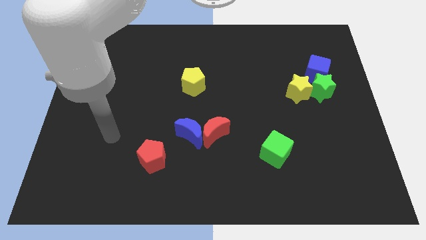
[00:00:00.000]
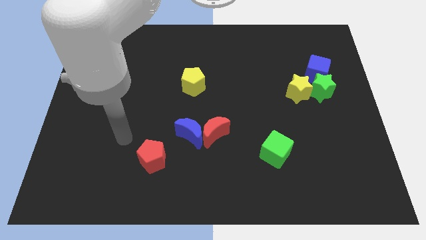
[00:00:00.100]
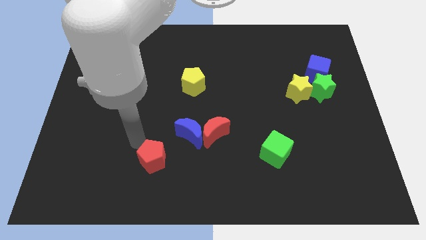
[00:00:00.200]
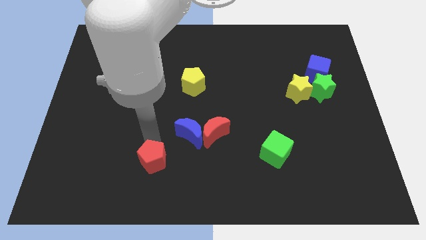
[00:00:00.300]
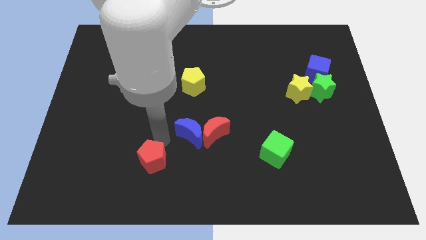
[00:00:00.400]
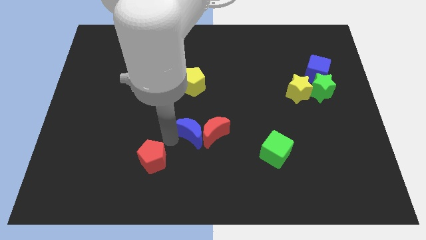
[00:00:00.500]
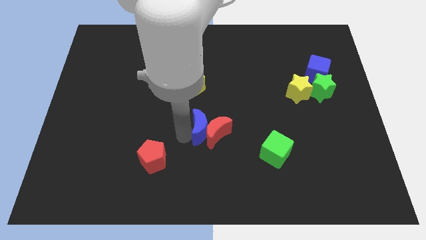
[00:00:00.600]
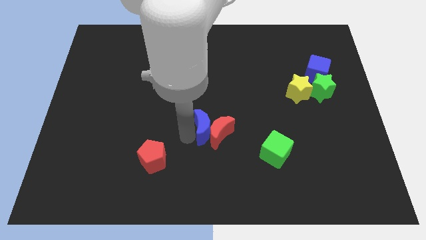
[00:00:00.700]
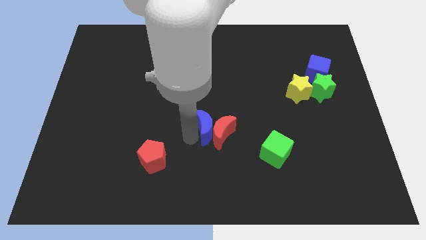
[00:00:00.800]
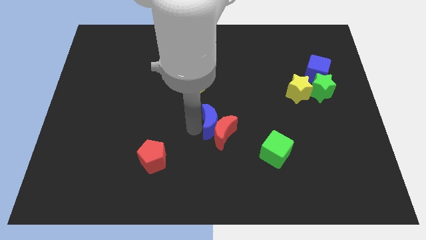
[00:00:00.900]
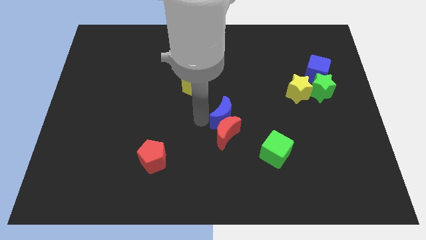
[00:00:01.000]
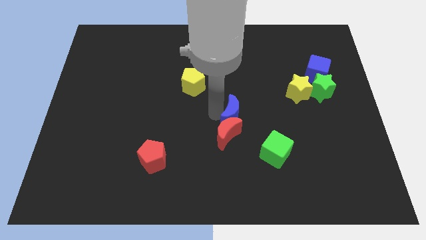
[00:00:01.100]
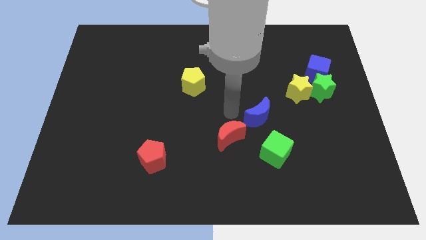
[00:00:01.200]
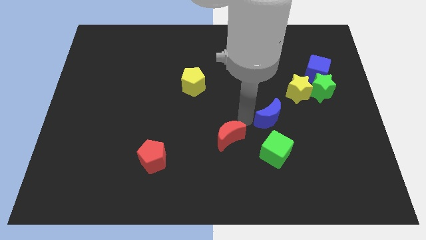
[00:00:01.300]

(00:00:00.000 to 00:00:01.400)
pull the red moon apart from the blue moon

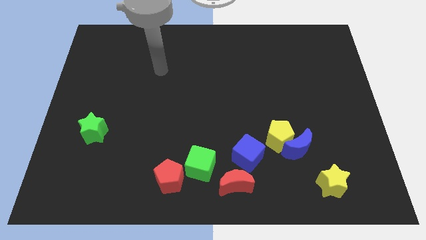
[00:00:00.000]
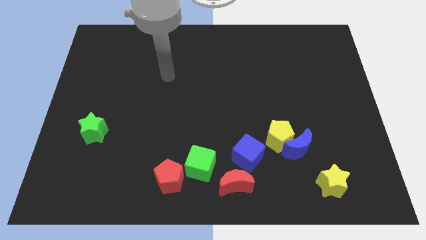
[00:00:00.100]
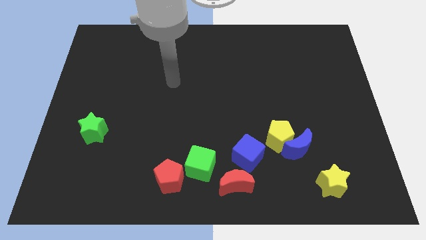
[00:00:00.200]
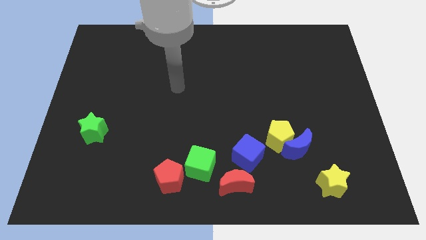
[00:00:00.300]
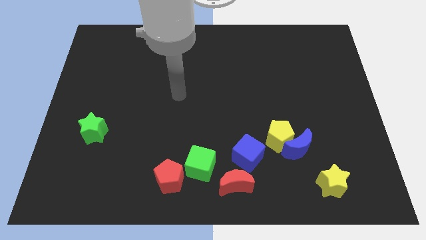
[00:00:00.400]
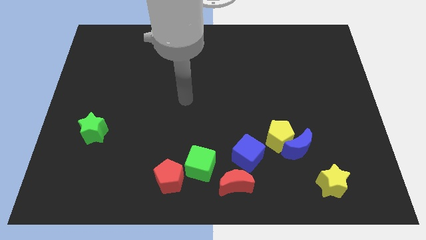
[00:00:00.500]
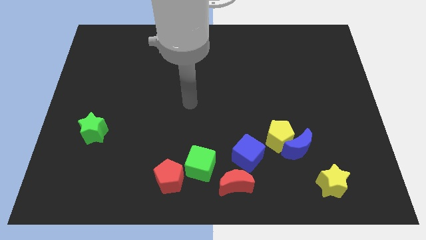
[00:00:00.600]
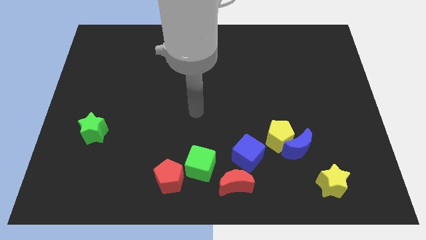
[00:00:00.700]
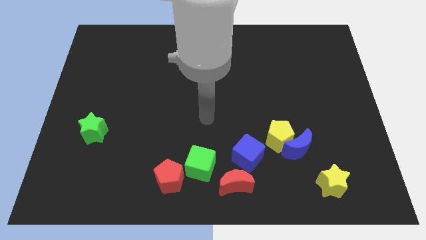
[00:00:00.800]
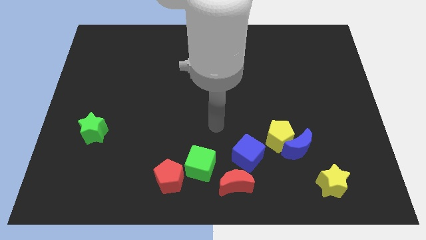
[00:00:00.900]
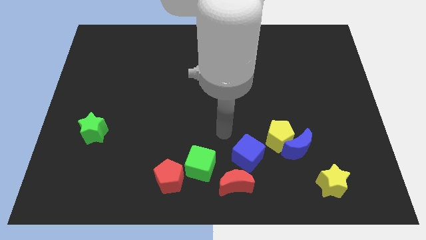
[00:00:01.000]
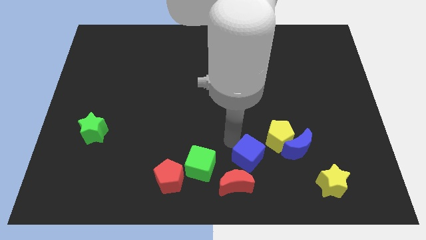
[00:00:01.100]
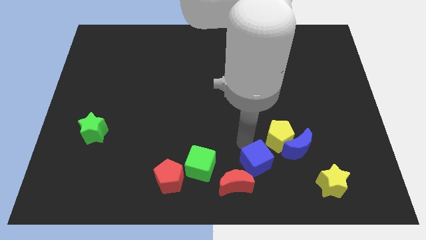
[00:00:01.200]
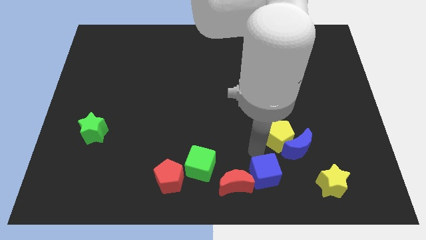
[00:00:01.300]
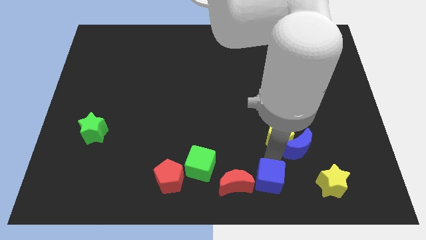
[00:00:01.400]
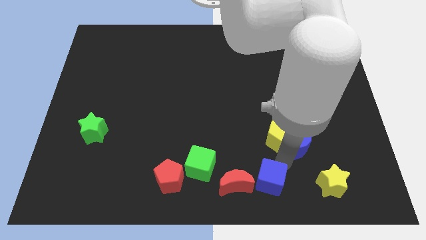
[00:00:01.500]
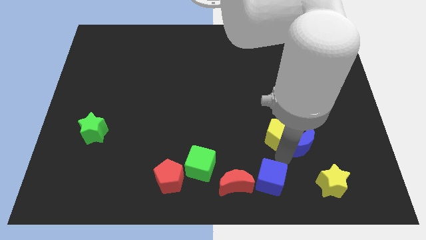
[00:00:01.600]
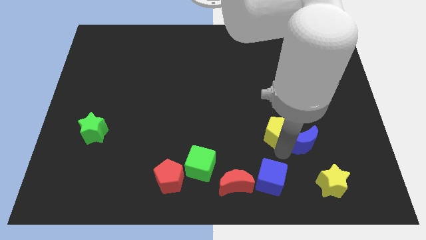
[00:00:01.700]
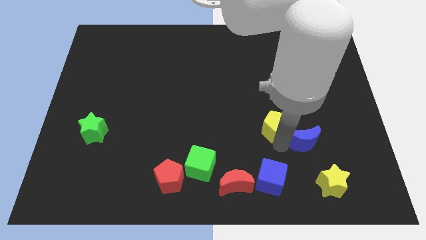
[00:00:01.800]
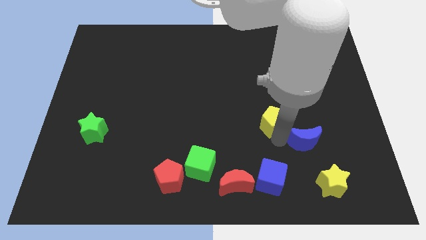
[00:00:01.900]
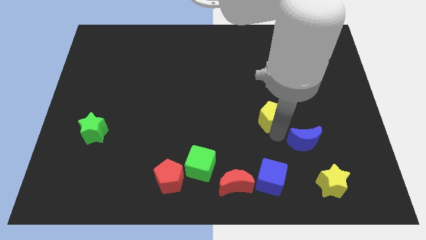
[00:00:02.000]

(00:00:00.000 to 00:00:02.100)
pull the yellow pentagon apart from the blue moon and blue cube

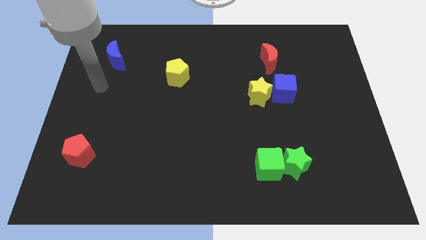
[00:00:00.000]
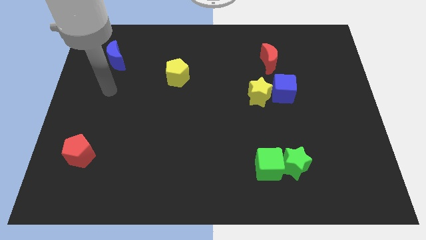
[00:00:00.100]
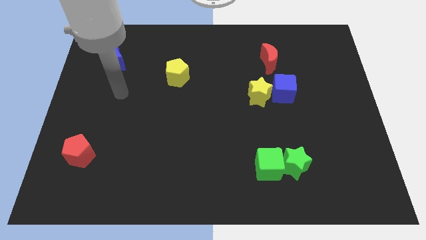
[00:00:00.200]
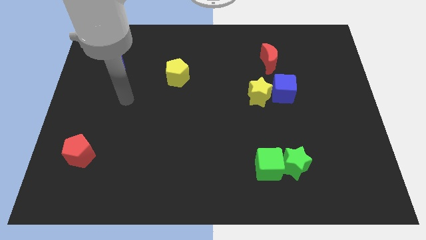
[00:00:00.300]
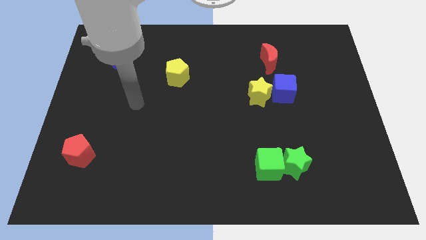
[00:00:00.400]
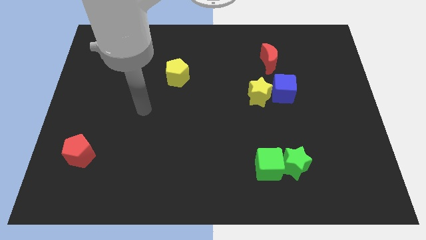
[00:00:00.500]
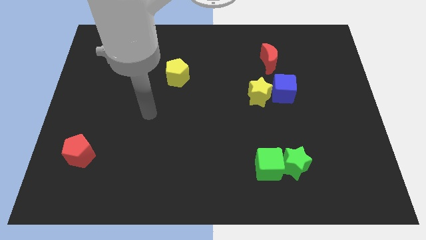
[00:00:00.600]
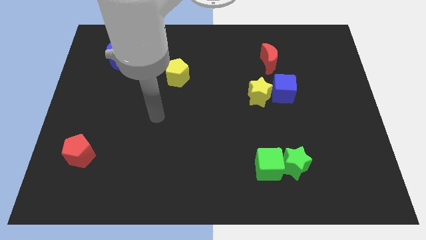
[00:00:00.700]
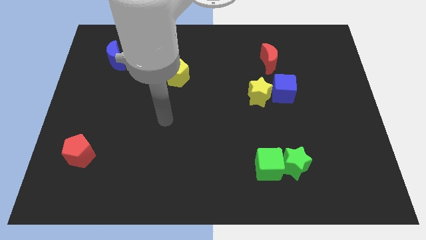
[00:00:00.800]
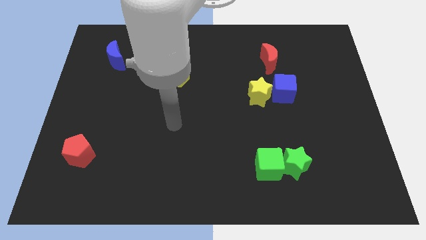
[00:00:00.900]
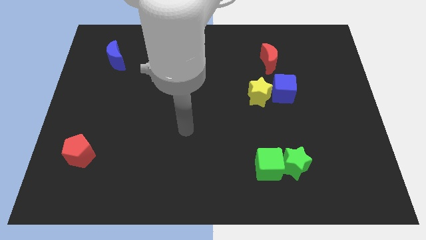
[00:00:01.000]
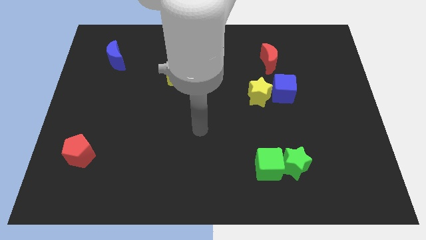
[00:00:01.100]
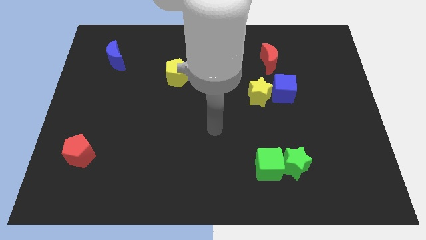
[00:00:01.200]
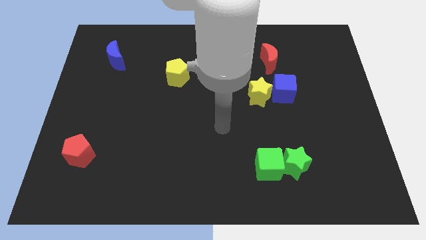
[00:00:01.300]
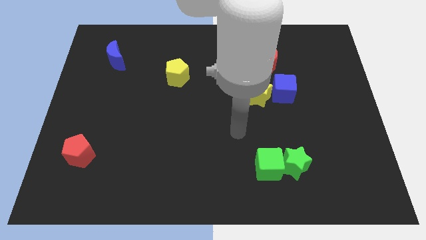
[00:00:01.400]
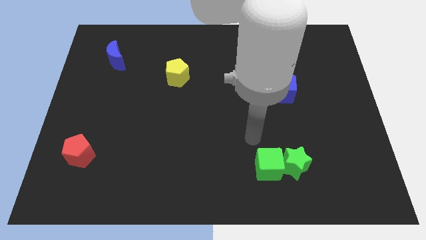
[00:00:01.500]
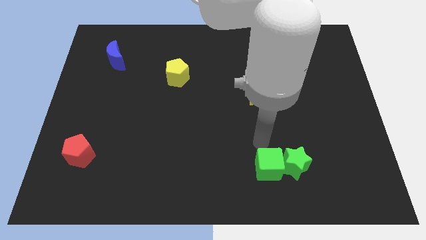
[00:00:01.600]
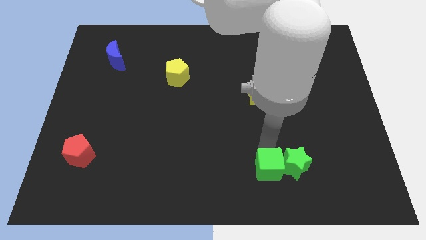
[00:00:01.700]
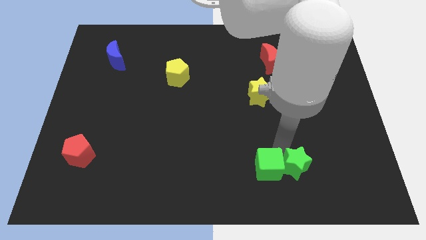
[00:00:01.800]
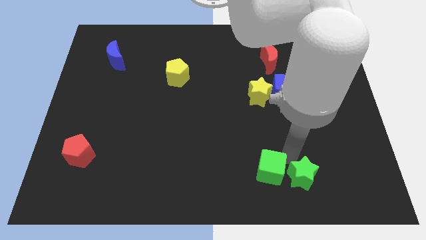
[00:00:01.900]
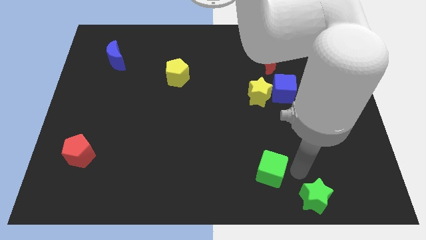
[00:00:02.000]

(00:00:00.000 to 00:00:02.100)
pull the green cube apart from the green star

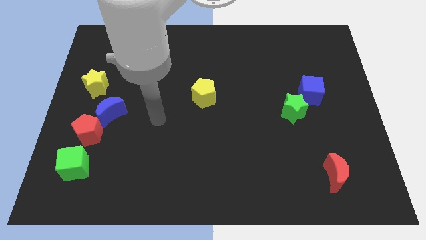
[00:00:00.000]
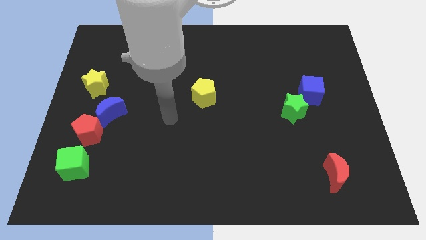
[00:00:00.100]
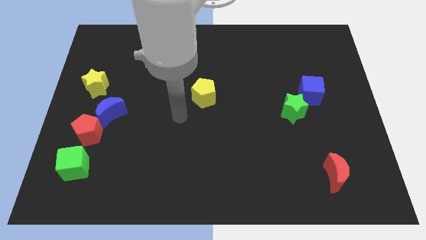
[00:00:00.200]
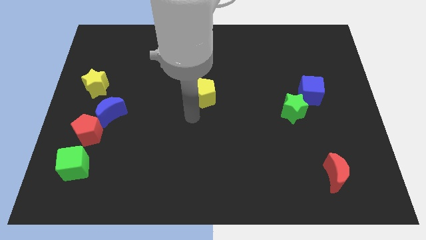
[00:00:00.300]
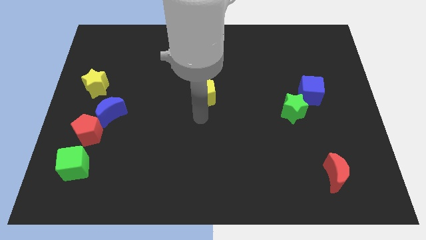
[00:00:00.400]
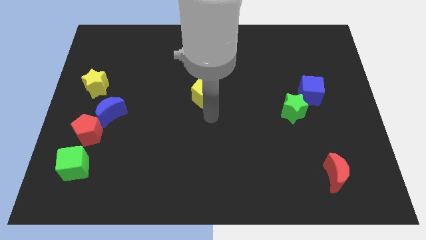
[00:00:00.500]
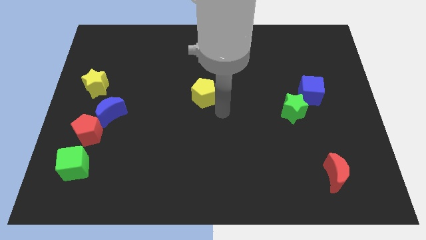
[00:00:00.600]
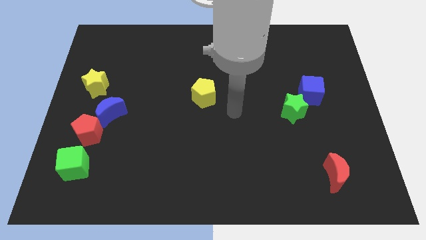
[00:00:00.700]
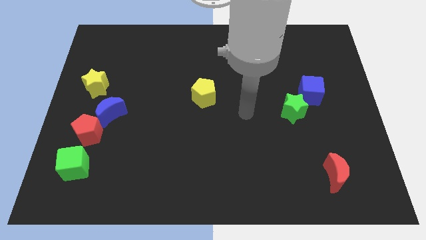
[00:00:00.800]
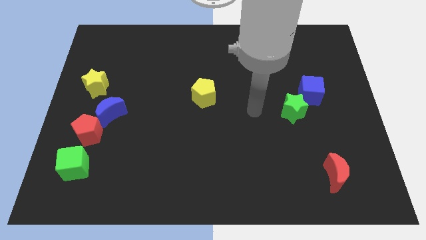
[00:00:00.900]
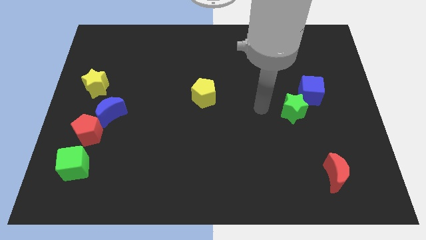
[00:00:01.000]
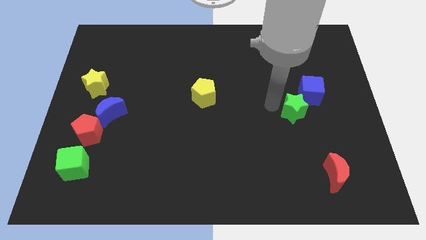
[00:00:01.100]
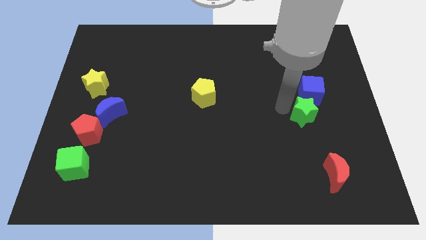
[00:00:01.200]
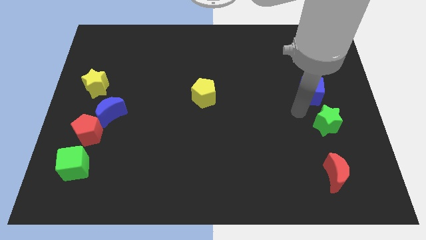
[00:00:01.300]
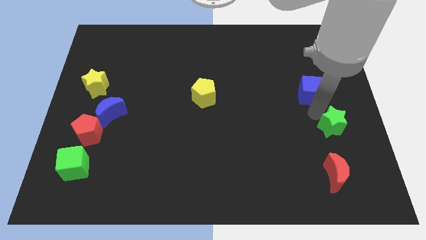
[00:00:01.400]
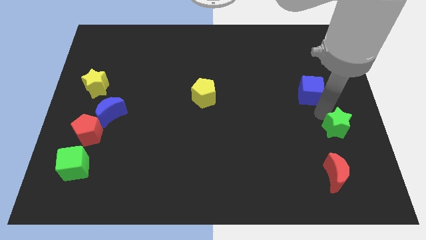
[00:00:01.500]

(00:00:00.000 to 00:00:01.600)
separate the blue cube from the green star

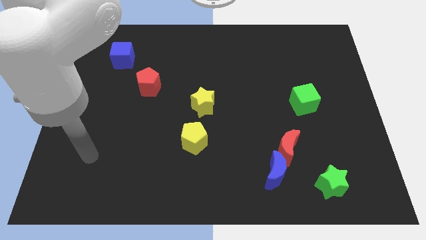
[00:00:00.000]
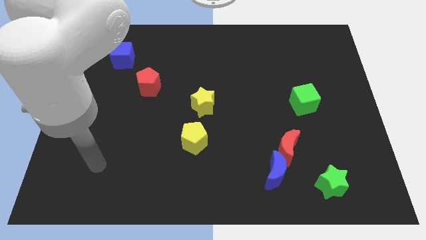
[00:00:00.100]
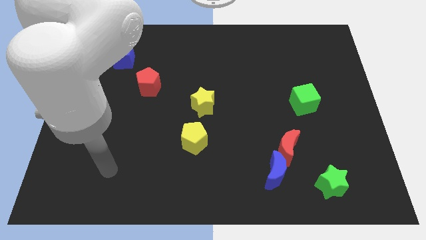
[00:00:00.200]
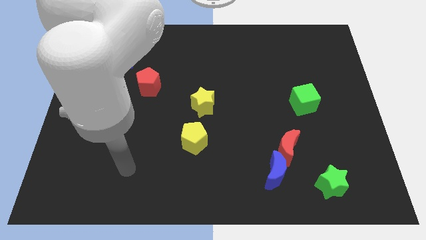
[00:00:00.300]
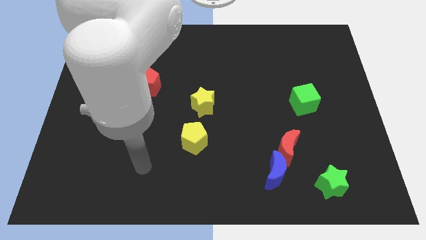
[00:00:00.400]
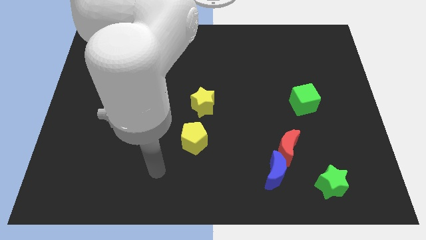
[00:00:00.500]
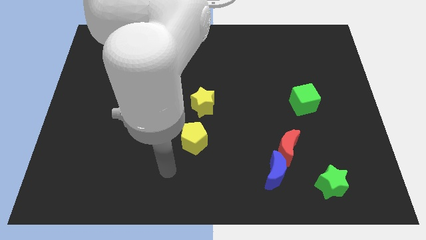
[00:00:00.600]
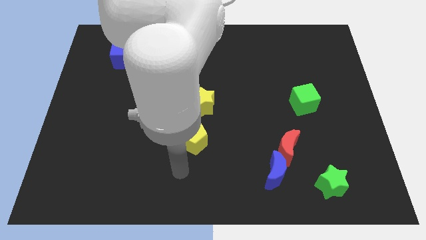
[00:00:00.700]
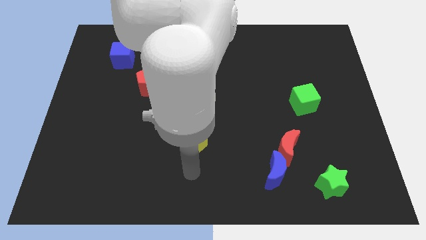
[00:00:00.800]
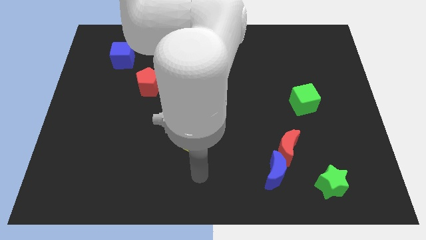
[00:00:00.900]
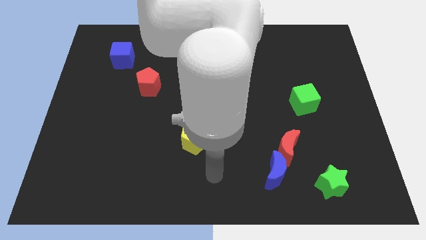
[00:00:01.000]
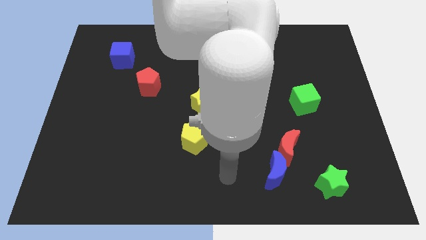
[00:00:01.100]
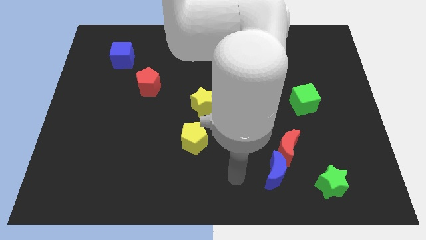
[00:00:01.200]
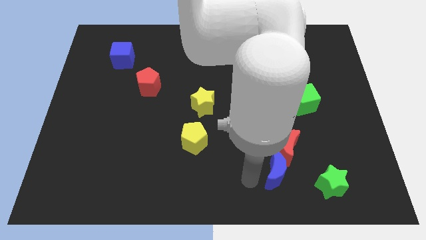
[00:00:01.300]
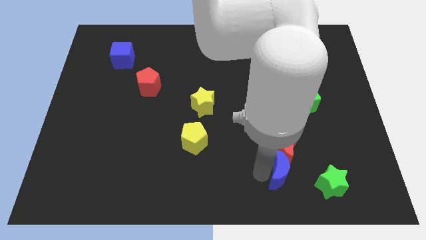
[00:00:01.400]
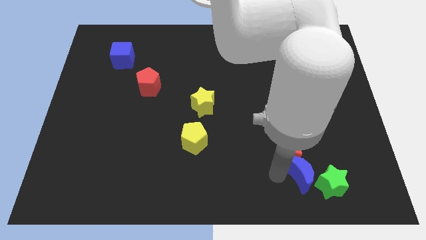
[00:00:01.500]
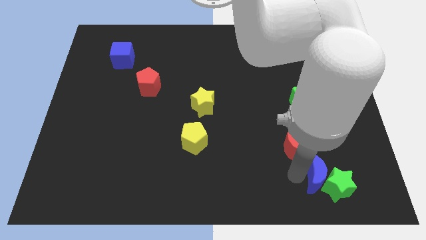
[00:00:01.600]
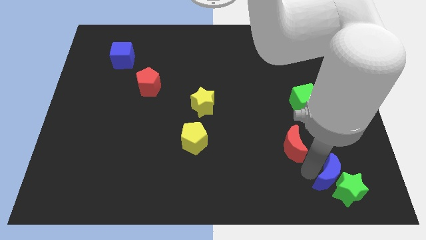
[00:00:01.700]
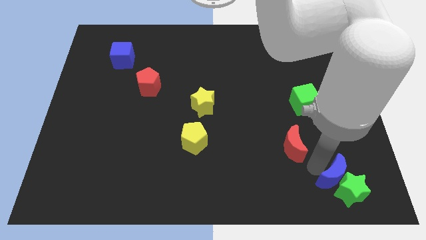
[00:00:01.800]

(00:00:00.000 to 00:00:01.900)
move the red moon away from the blue moon
